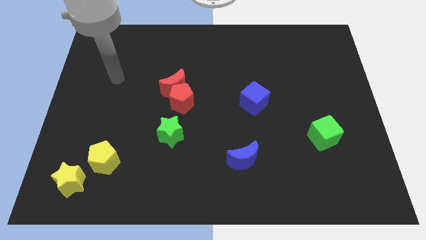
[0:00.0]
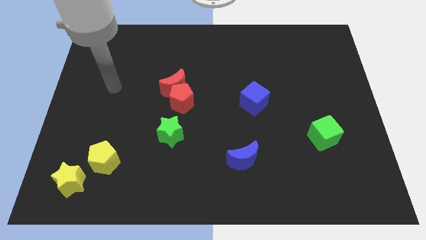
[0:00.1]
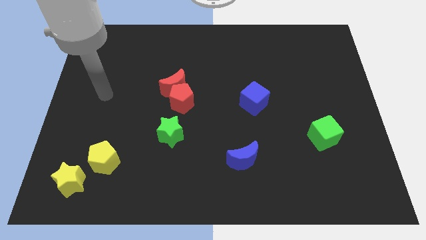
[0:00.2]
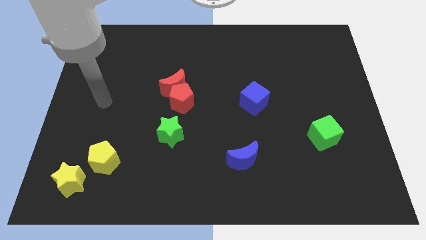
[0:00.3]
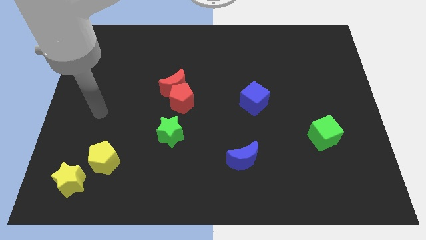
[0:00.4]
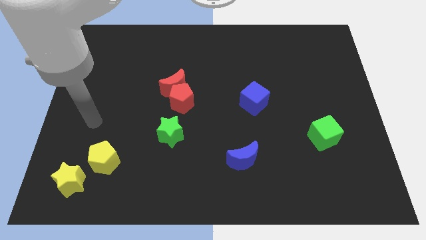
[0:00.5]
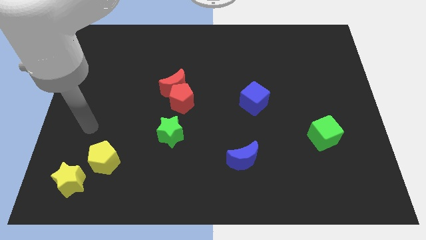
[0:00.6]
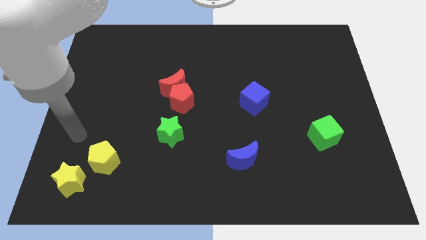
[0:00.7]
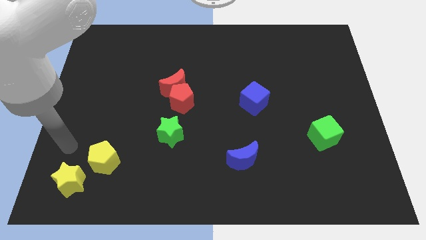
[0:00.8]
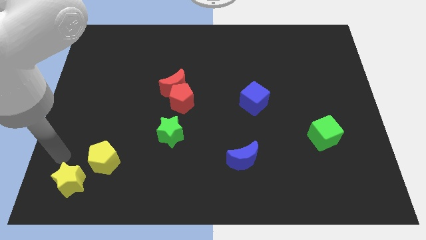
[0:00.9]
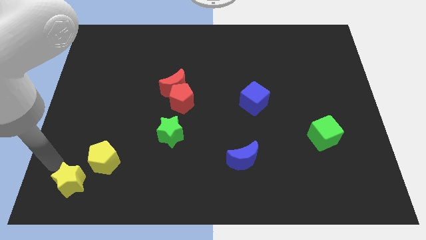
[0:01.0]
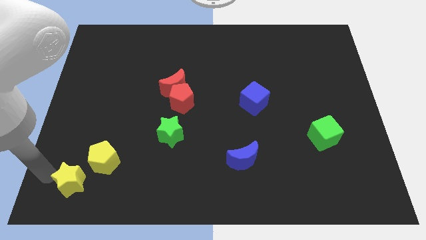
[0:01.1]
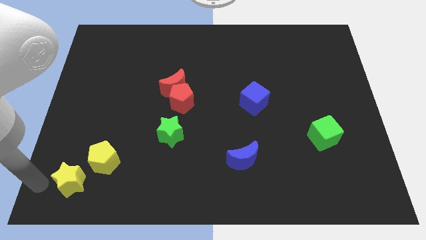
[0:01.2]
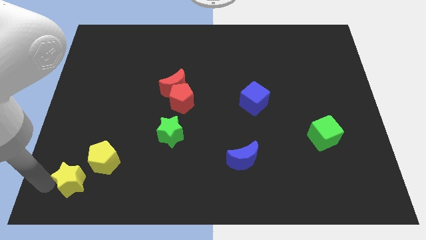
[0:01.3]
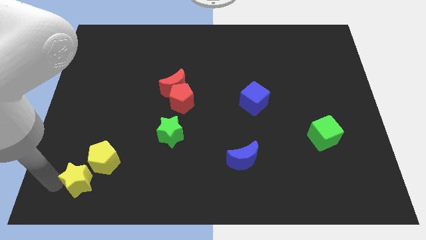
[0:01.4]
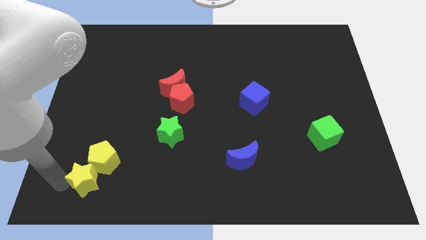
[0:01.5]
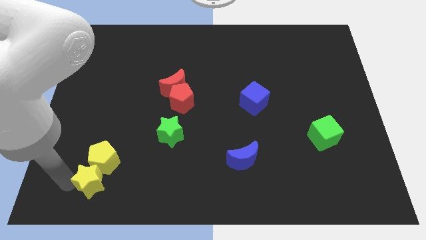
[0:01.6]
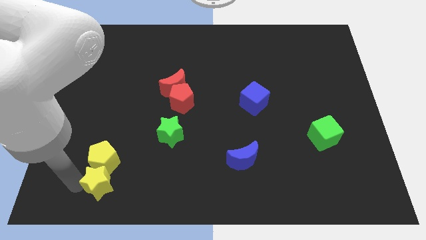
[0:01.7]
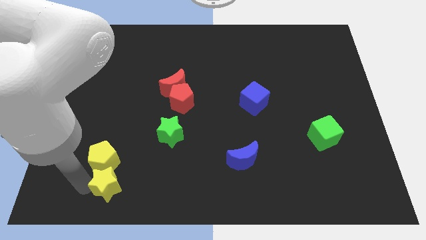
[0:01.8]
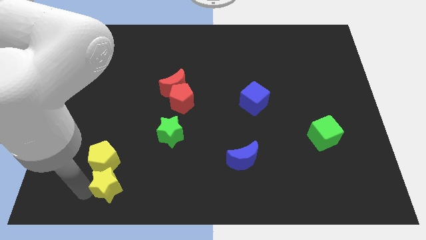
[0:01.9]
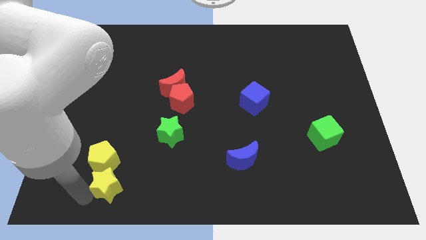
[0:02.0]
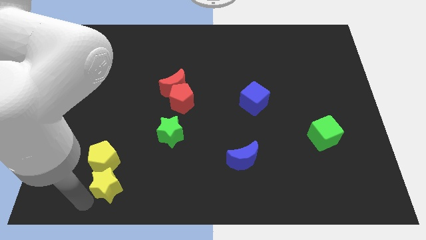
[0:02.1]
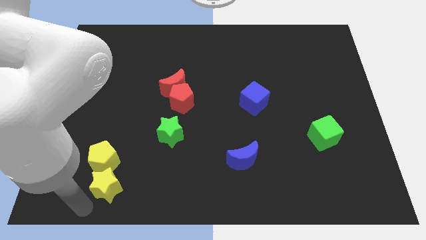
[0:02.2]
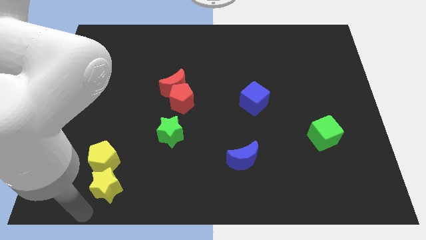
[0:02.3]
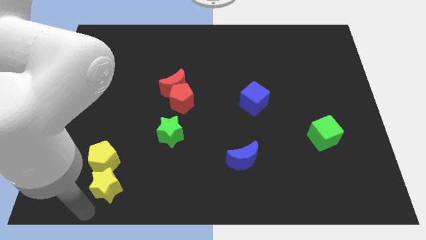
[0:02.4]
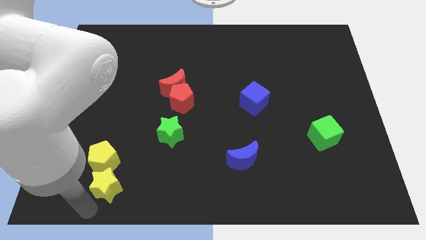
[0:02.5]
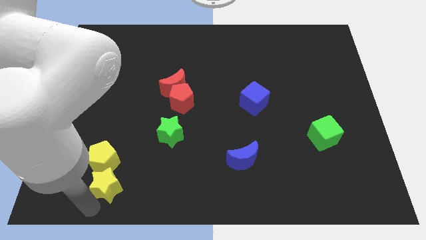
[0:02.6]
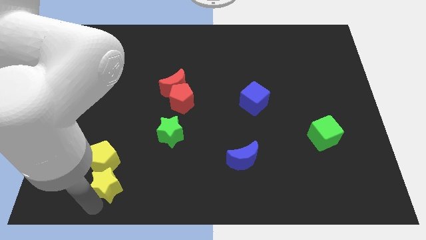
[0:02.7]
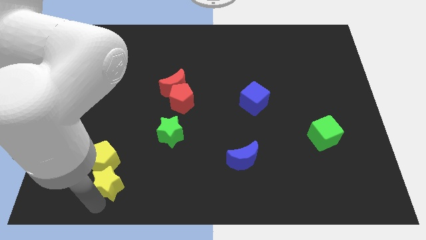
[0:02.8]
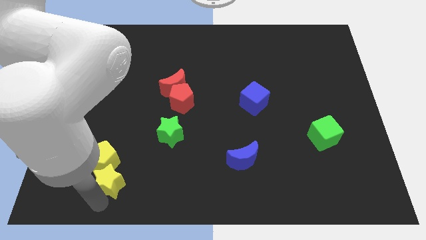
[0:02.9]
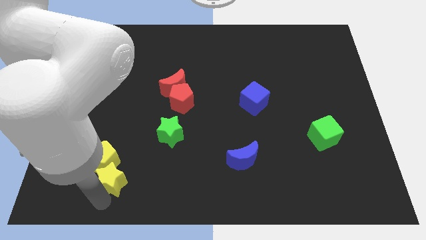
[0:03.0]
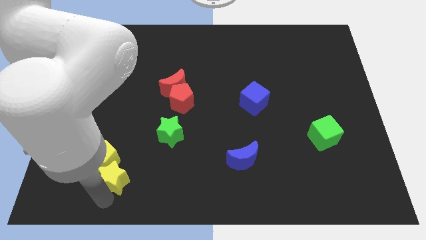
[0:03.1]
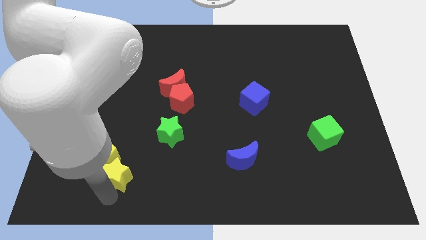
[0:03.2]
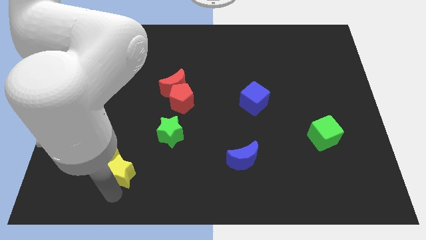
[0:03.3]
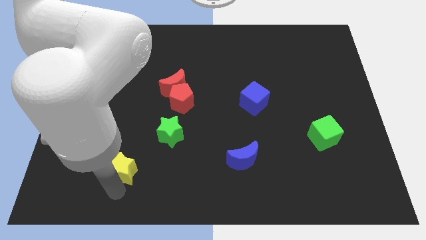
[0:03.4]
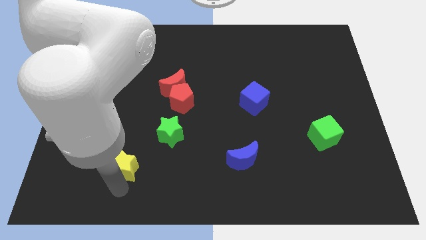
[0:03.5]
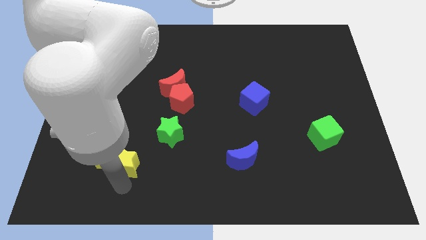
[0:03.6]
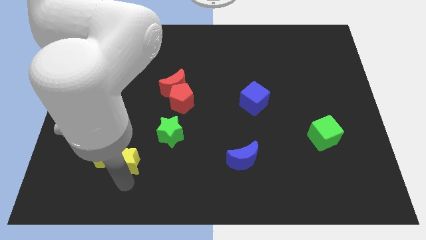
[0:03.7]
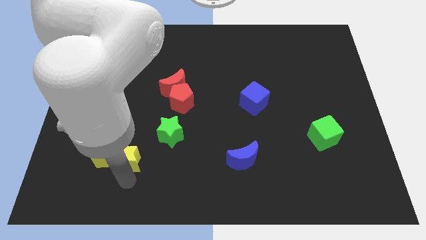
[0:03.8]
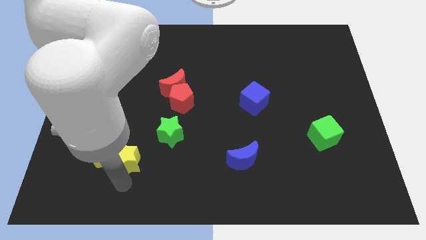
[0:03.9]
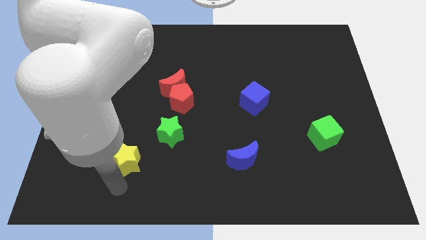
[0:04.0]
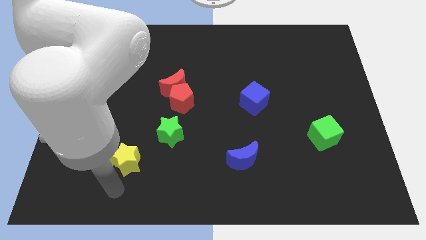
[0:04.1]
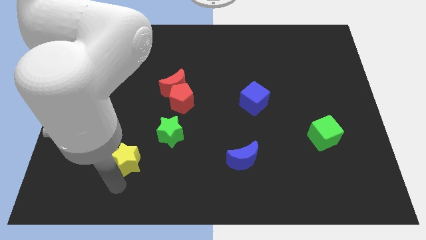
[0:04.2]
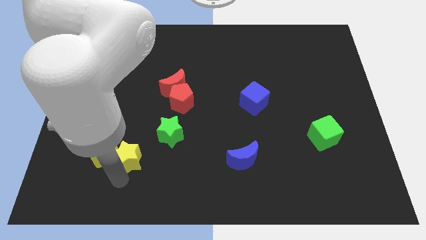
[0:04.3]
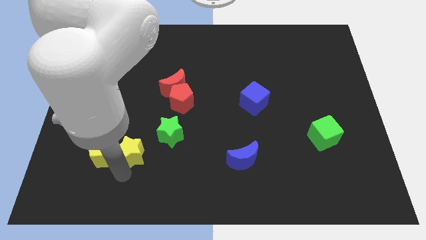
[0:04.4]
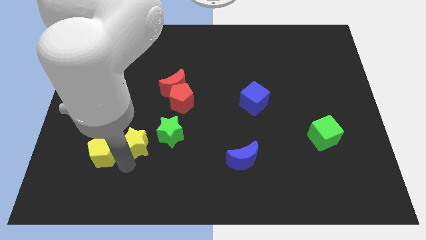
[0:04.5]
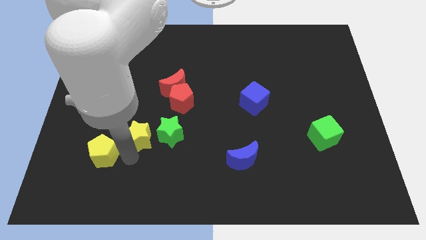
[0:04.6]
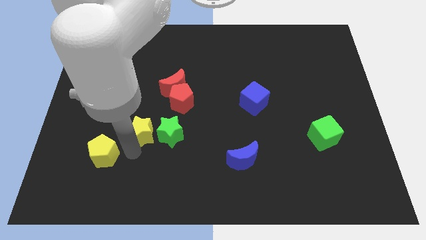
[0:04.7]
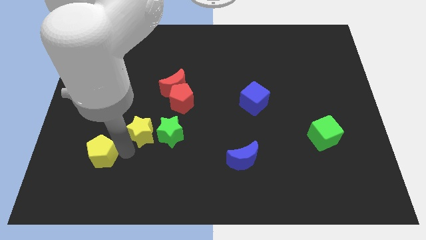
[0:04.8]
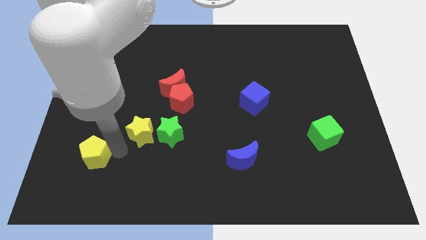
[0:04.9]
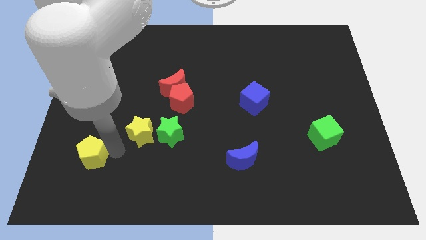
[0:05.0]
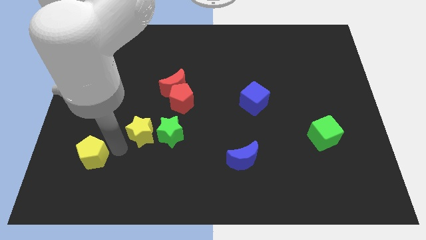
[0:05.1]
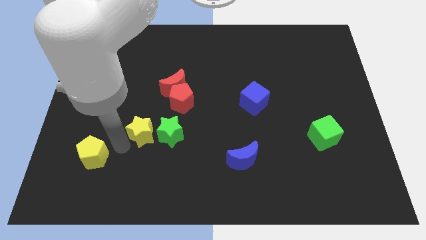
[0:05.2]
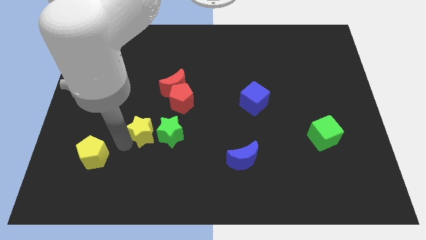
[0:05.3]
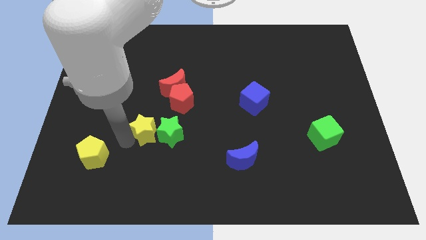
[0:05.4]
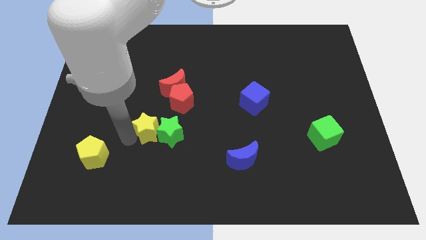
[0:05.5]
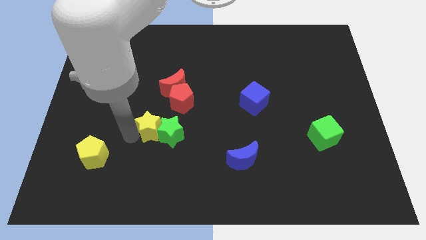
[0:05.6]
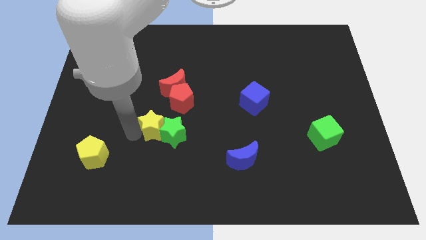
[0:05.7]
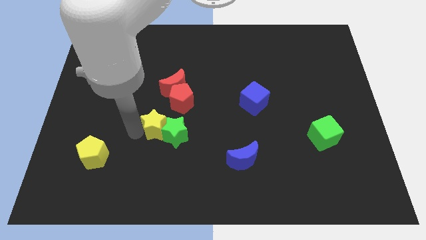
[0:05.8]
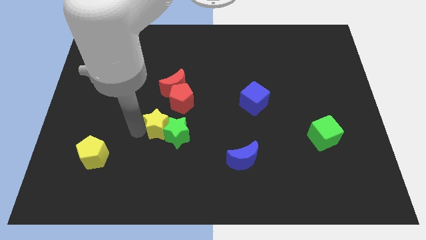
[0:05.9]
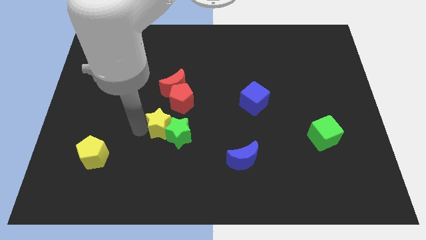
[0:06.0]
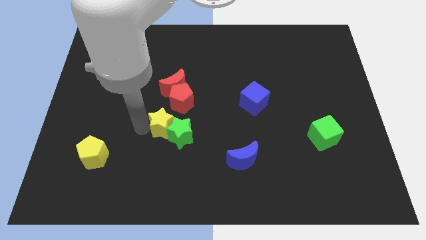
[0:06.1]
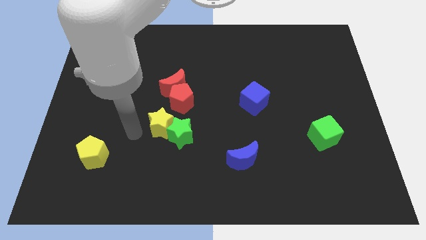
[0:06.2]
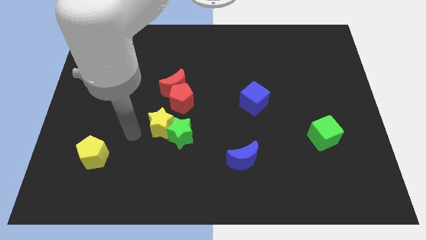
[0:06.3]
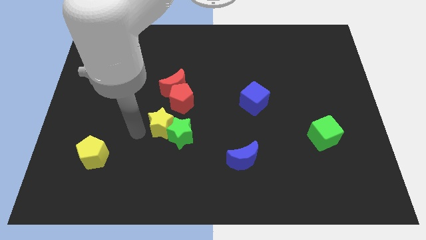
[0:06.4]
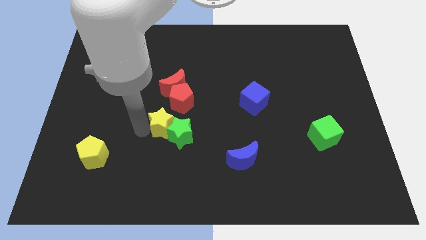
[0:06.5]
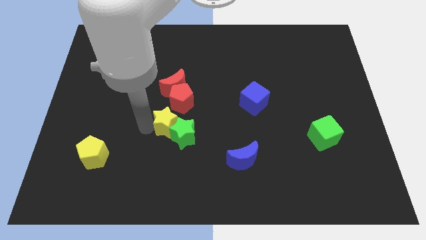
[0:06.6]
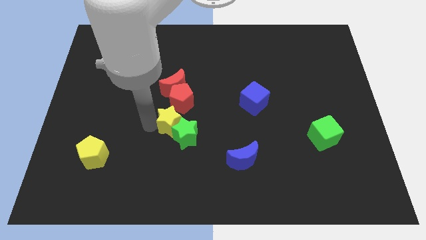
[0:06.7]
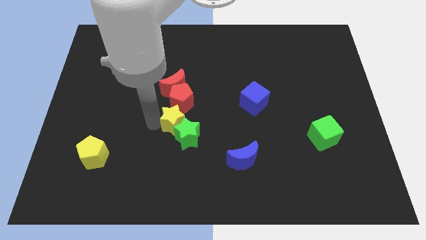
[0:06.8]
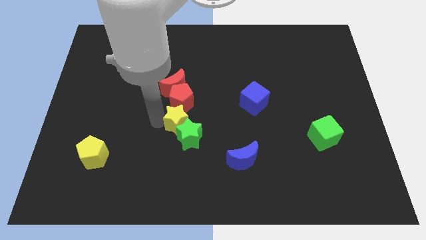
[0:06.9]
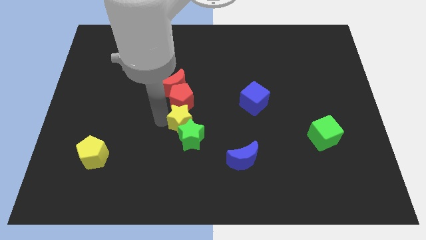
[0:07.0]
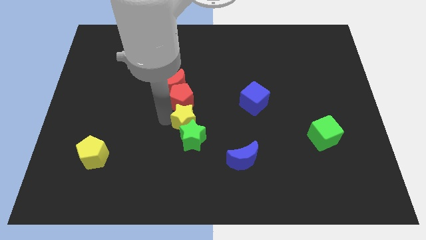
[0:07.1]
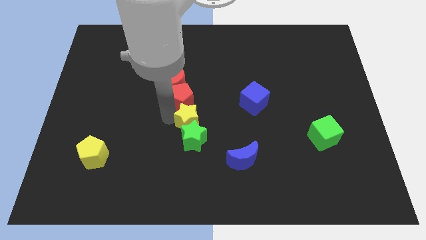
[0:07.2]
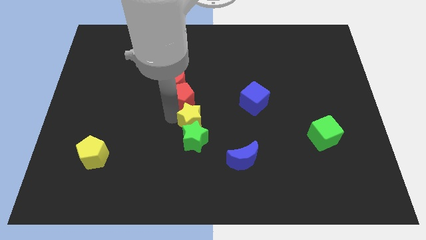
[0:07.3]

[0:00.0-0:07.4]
push the yellow star to the top right of the green star

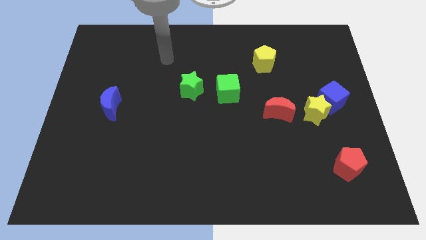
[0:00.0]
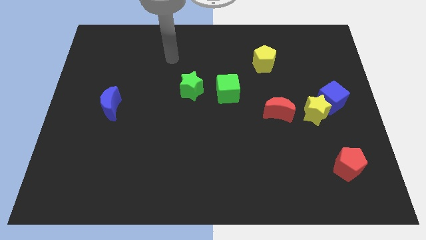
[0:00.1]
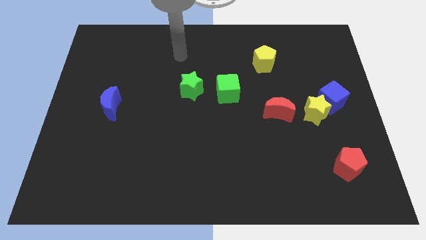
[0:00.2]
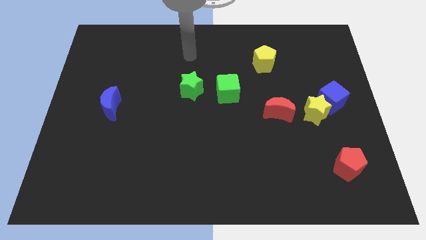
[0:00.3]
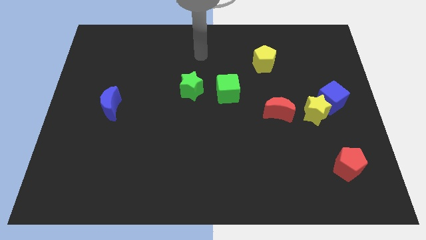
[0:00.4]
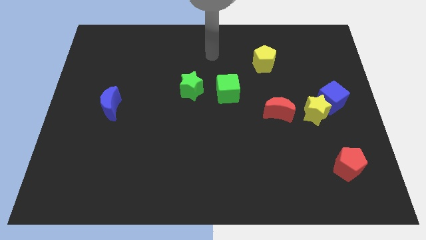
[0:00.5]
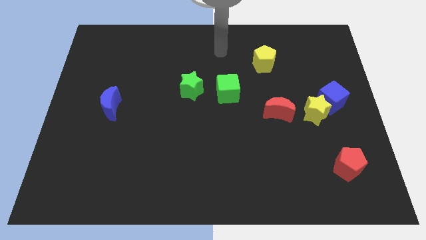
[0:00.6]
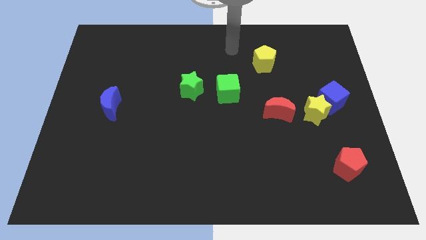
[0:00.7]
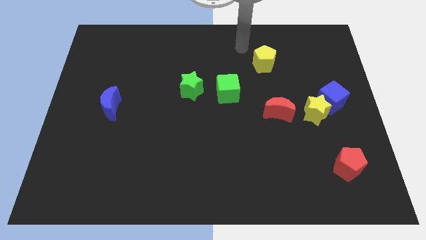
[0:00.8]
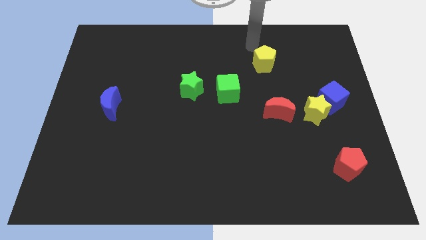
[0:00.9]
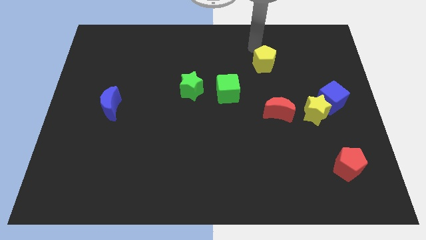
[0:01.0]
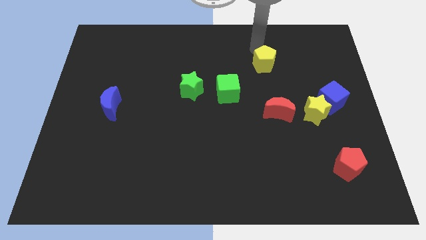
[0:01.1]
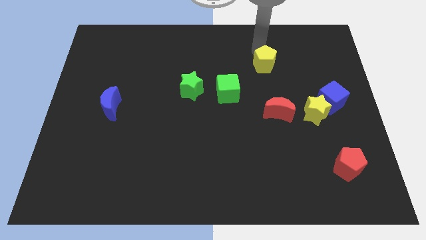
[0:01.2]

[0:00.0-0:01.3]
move the yellow pentagon above the red moon
